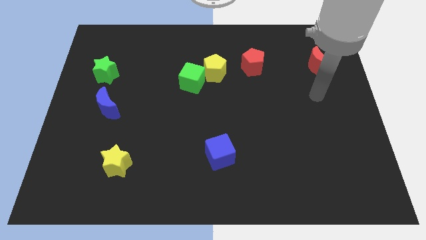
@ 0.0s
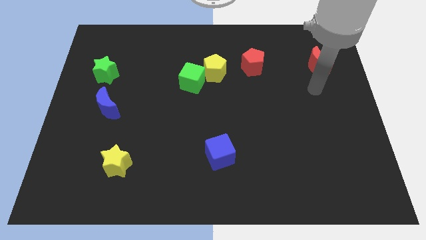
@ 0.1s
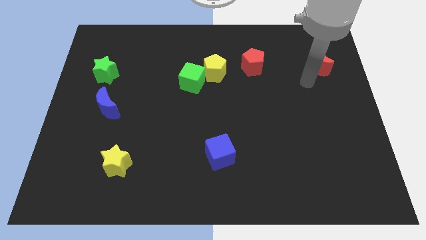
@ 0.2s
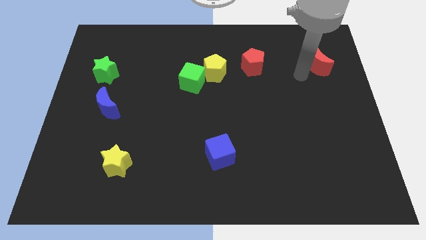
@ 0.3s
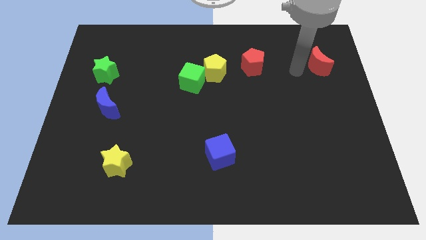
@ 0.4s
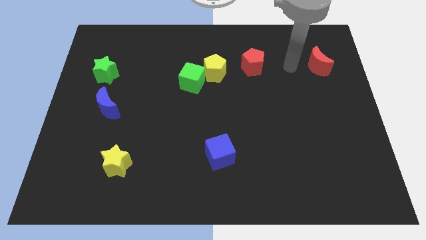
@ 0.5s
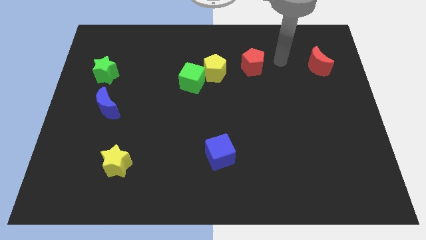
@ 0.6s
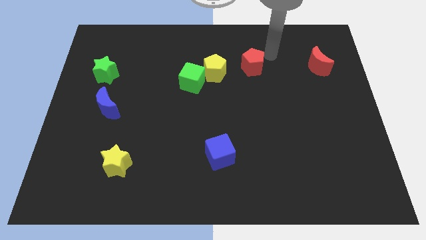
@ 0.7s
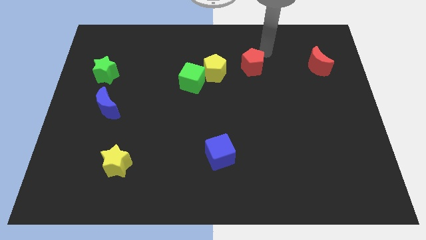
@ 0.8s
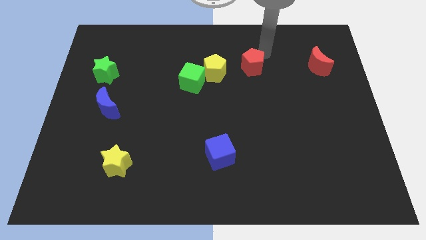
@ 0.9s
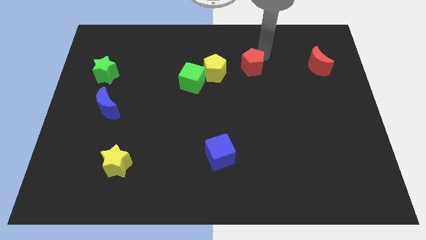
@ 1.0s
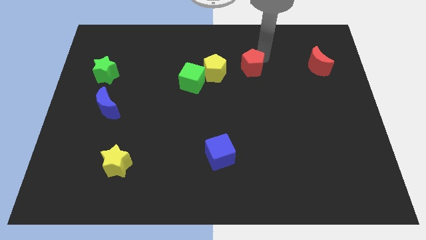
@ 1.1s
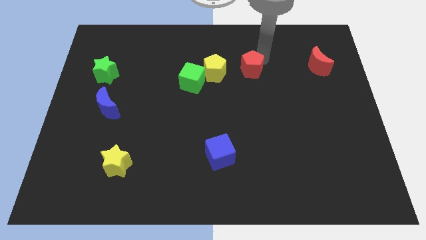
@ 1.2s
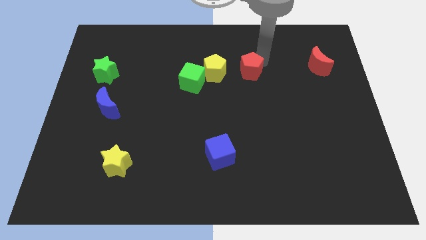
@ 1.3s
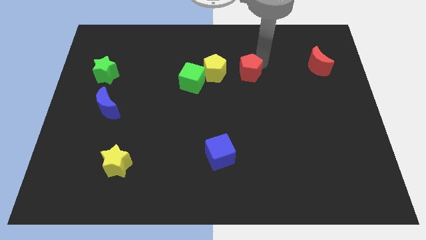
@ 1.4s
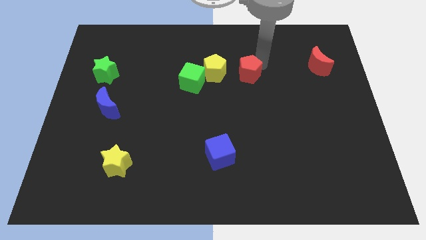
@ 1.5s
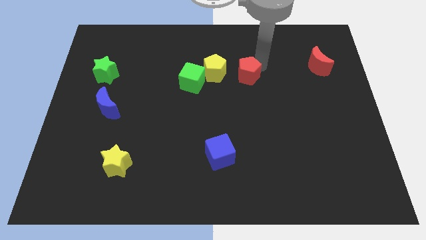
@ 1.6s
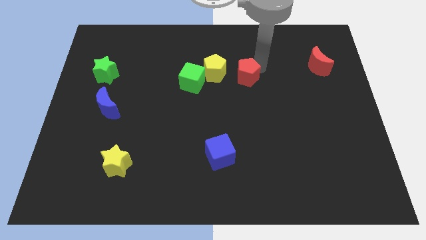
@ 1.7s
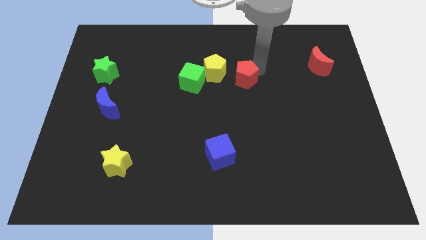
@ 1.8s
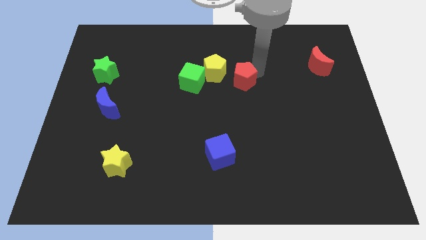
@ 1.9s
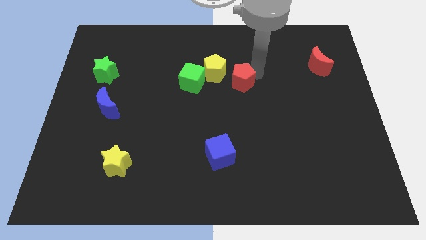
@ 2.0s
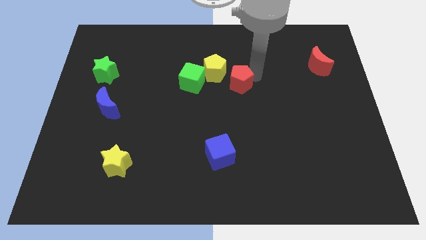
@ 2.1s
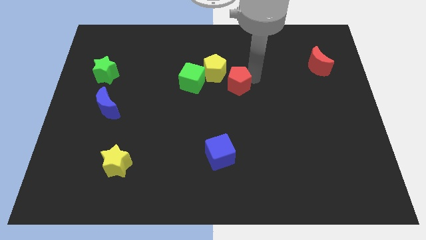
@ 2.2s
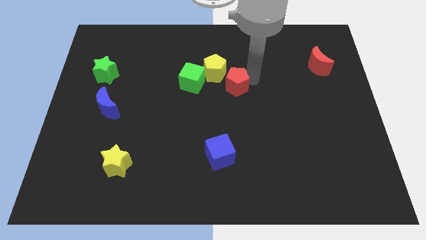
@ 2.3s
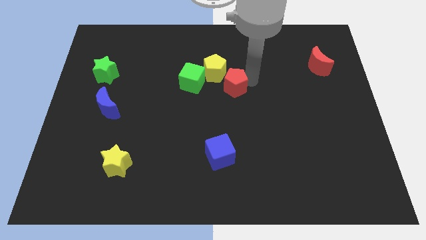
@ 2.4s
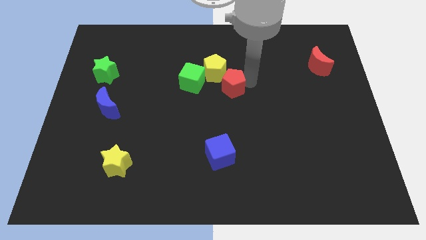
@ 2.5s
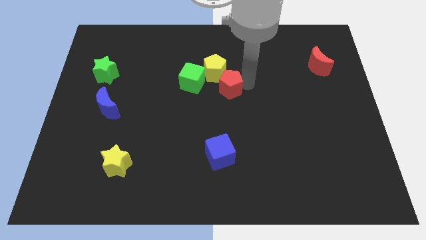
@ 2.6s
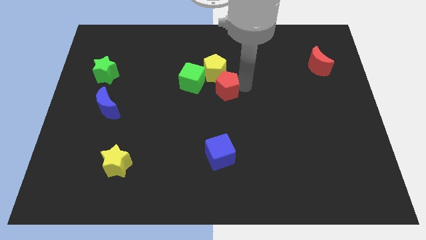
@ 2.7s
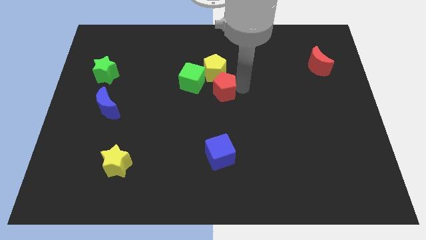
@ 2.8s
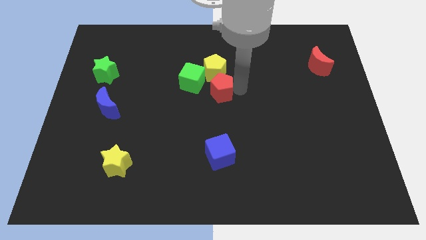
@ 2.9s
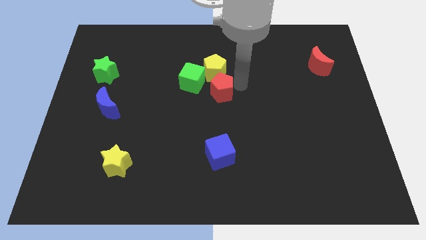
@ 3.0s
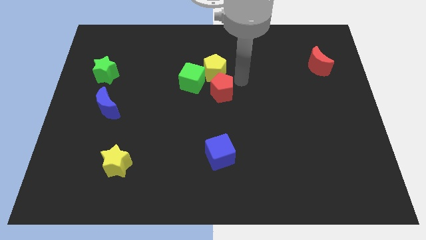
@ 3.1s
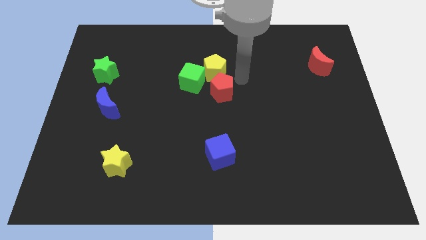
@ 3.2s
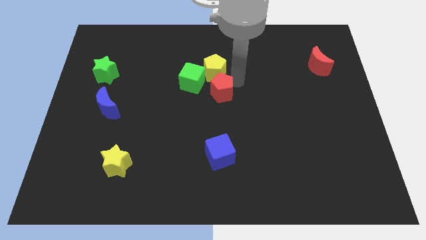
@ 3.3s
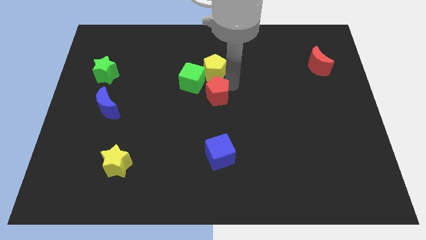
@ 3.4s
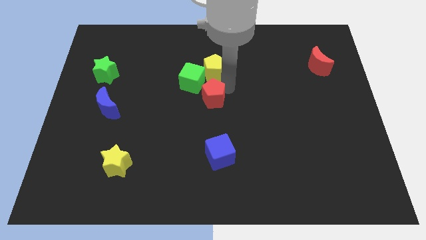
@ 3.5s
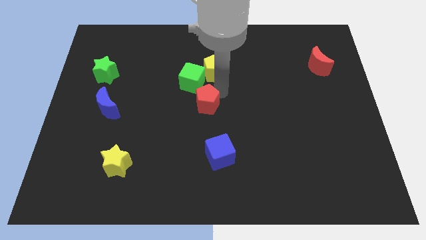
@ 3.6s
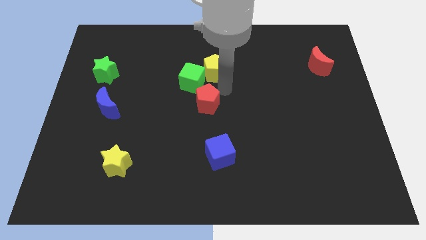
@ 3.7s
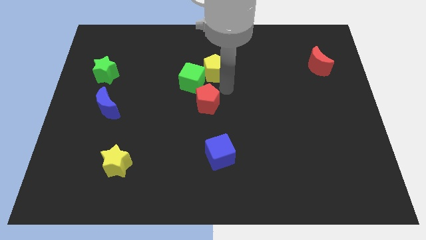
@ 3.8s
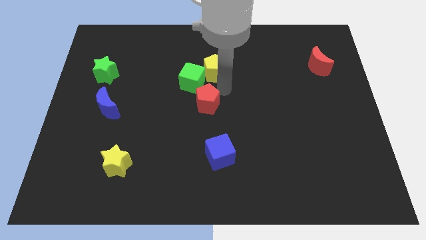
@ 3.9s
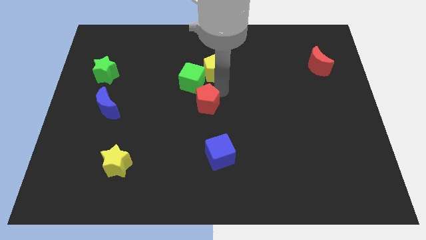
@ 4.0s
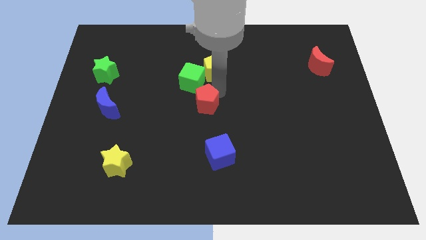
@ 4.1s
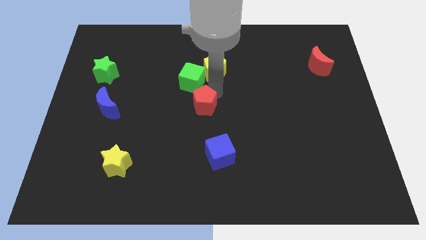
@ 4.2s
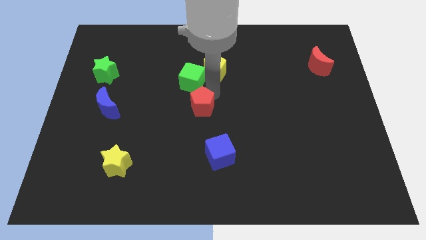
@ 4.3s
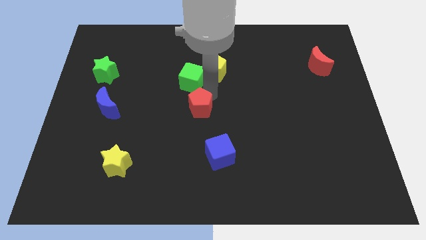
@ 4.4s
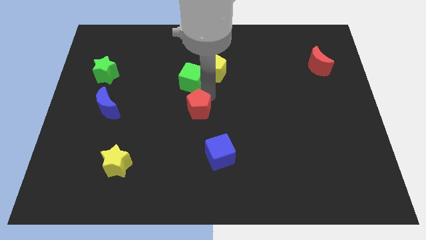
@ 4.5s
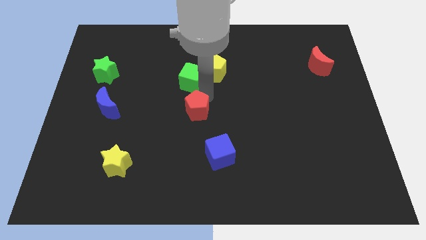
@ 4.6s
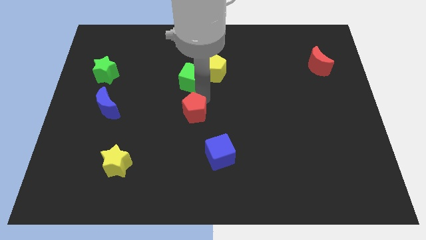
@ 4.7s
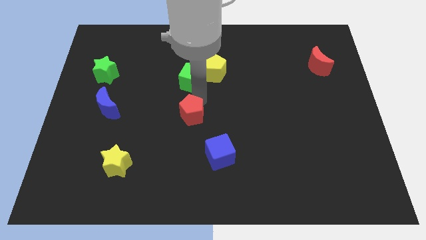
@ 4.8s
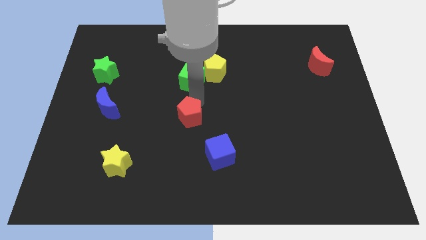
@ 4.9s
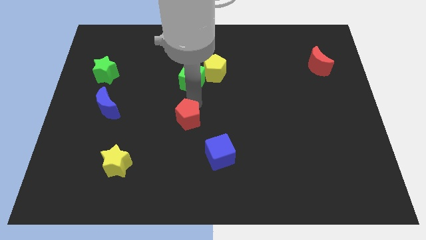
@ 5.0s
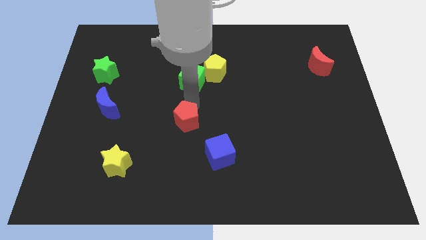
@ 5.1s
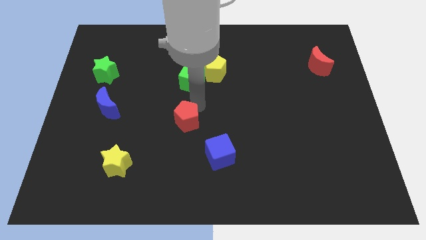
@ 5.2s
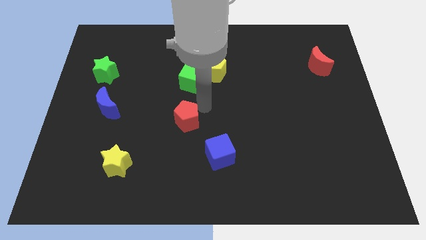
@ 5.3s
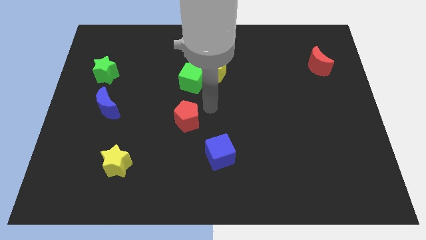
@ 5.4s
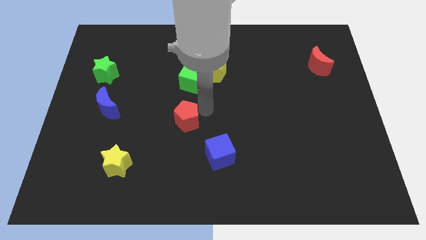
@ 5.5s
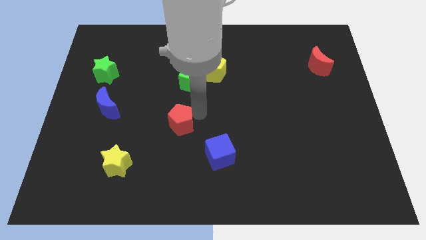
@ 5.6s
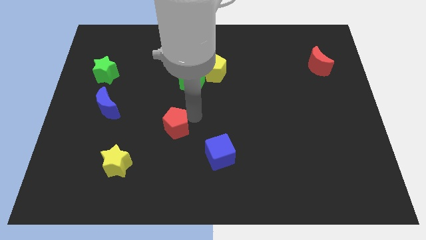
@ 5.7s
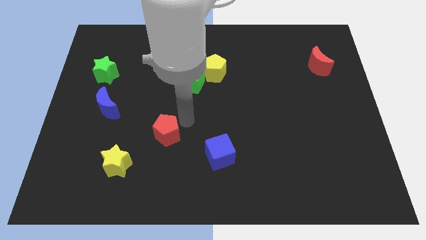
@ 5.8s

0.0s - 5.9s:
put the red pentagon diagonally up and to the right of the yellow star

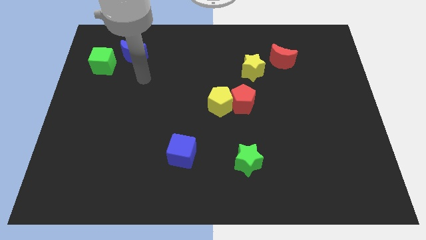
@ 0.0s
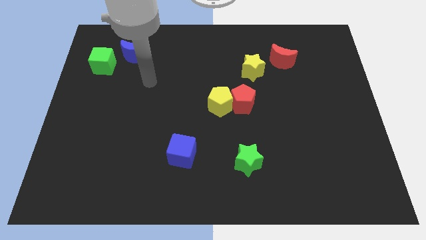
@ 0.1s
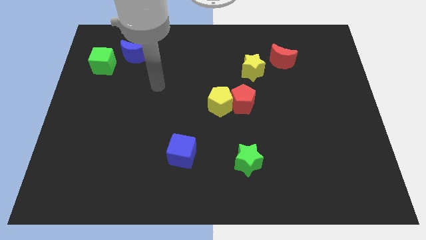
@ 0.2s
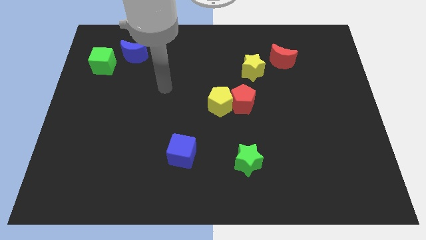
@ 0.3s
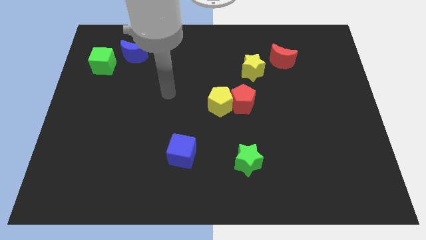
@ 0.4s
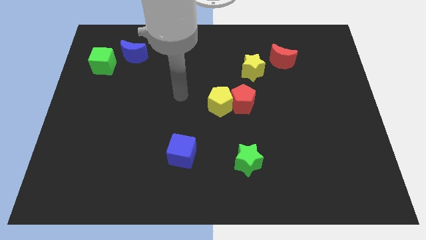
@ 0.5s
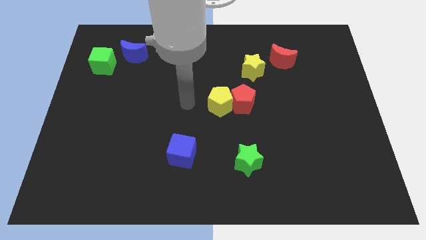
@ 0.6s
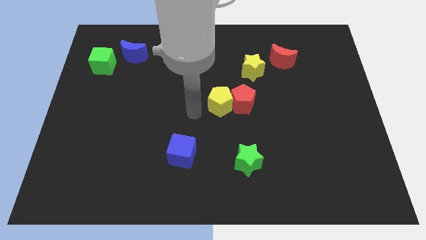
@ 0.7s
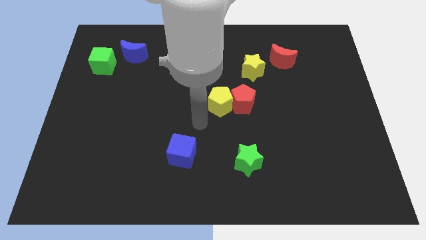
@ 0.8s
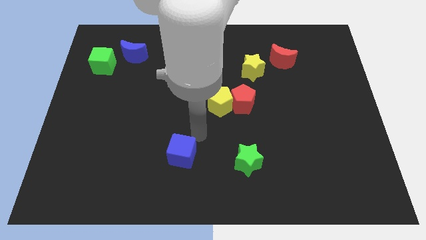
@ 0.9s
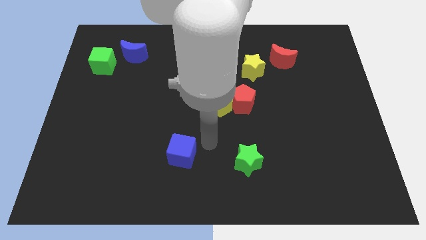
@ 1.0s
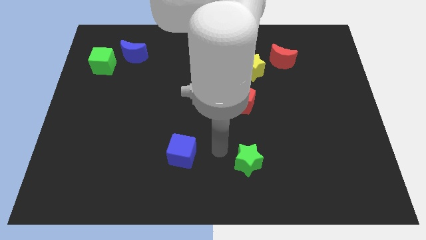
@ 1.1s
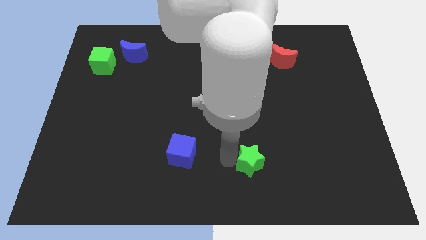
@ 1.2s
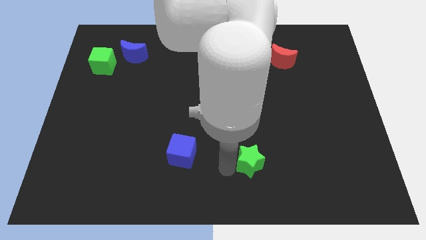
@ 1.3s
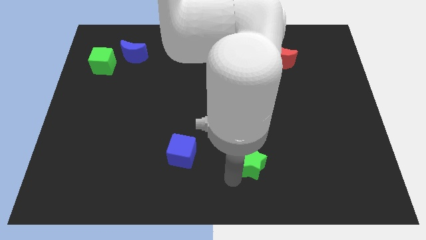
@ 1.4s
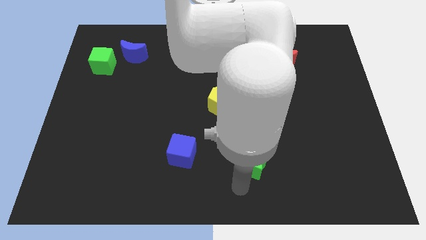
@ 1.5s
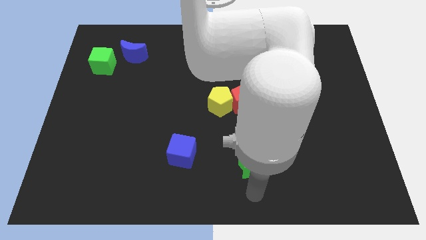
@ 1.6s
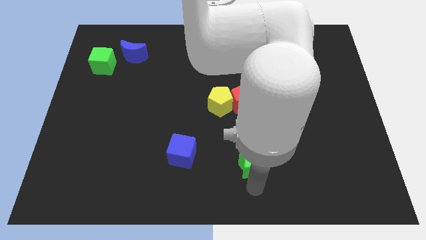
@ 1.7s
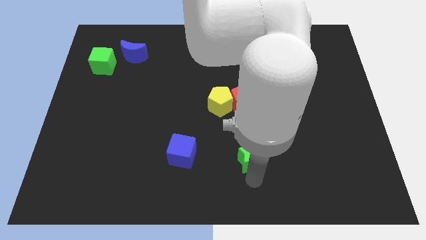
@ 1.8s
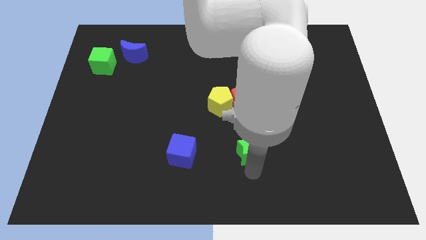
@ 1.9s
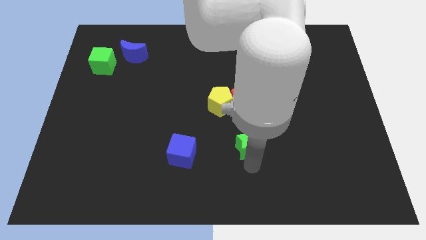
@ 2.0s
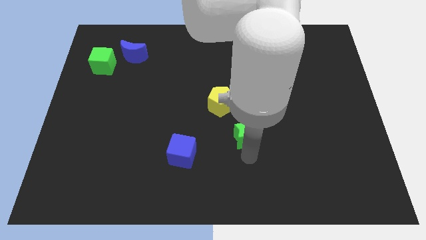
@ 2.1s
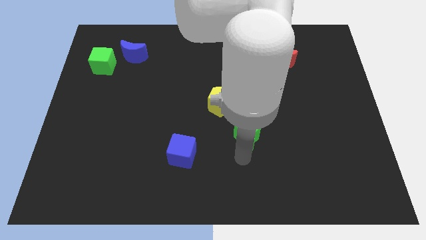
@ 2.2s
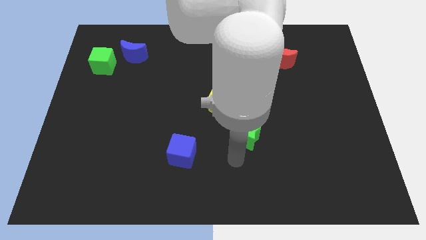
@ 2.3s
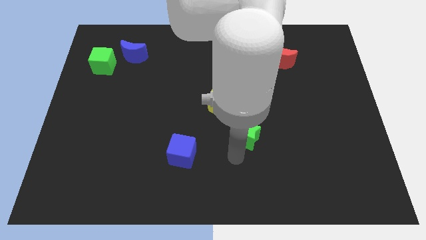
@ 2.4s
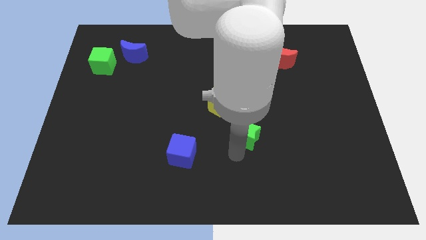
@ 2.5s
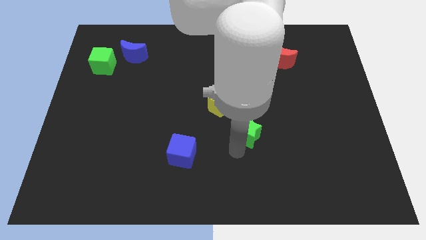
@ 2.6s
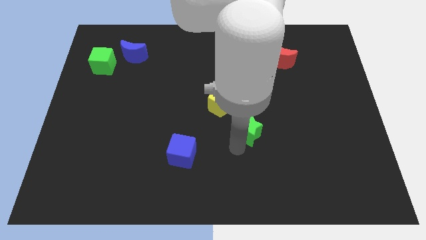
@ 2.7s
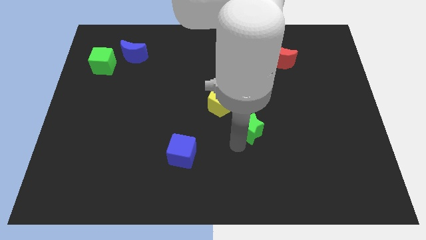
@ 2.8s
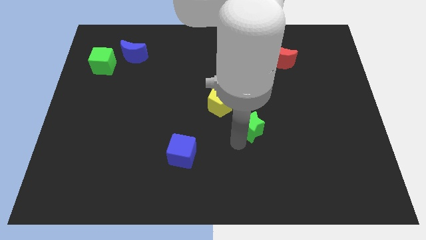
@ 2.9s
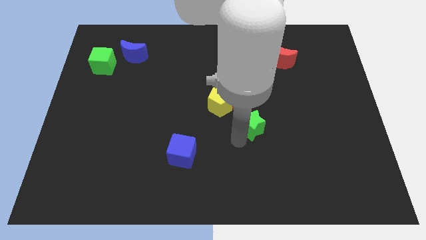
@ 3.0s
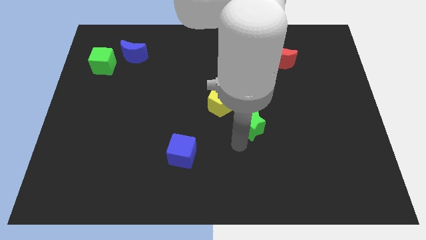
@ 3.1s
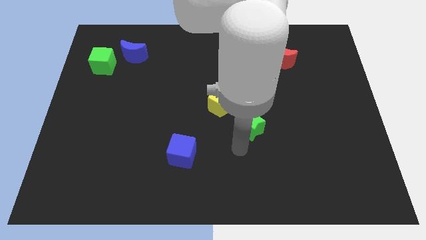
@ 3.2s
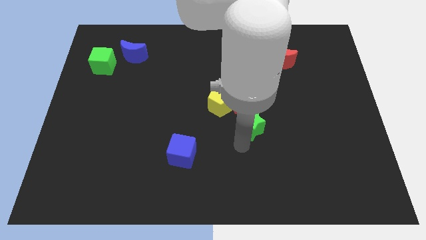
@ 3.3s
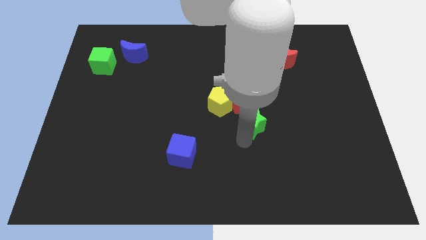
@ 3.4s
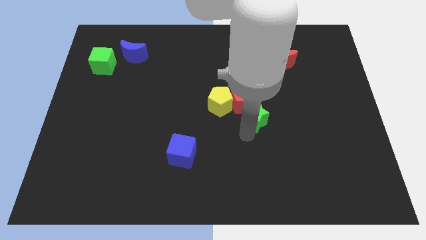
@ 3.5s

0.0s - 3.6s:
slide the green star to the right side of the yellow pentagon
